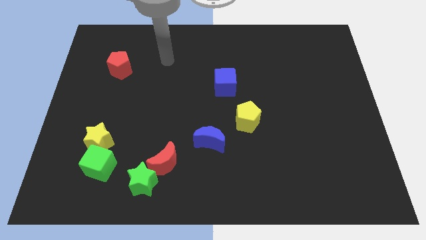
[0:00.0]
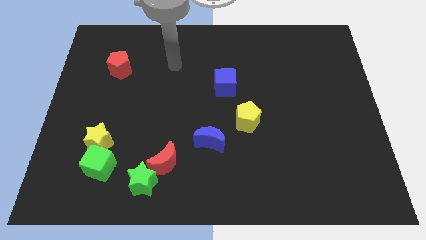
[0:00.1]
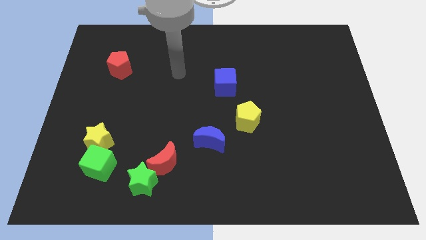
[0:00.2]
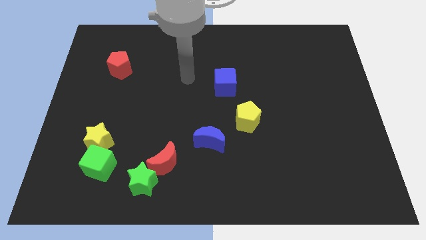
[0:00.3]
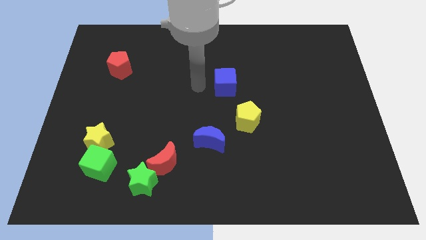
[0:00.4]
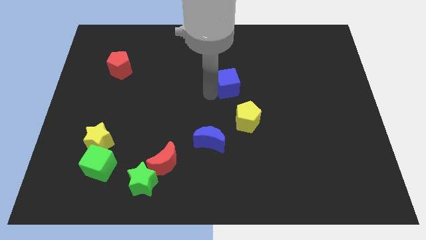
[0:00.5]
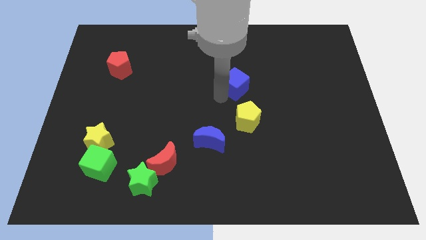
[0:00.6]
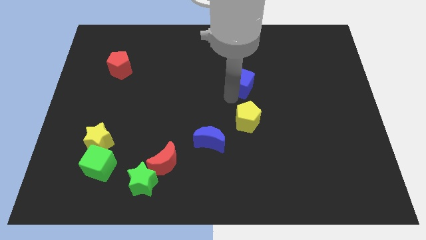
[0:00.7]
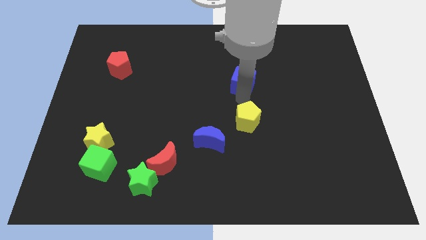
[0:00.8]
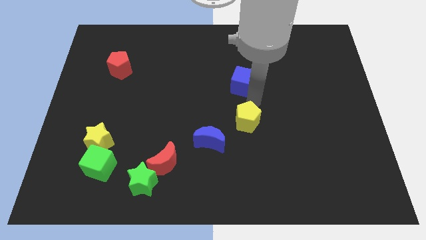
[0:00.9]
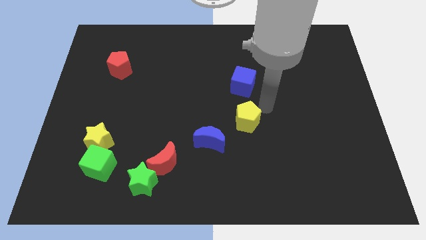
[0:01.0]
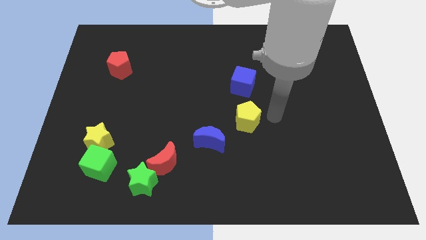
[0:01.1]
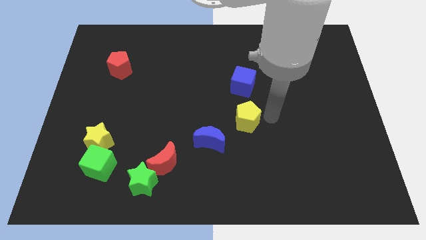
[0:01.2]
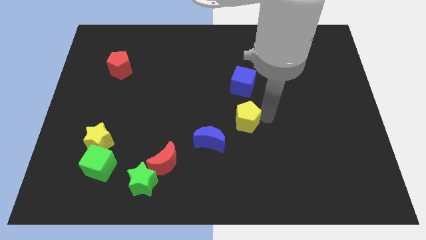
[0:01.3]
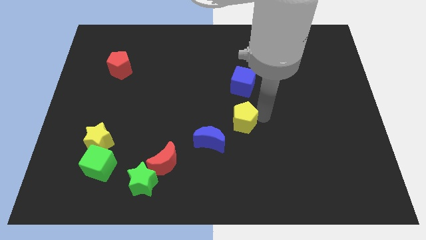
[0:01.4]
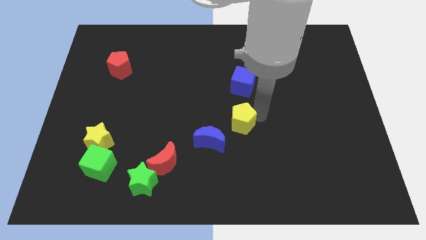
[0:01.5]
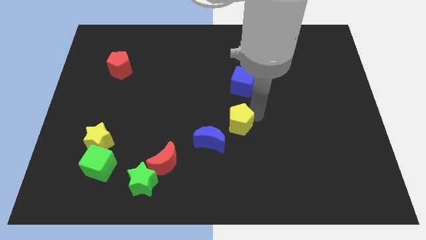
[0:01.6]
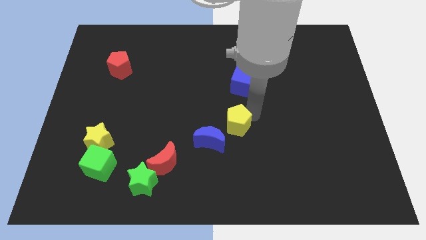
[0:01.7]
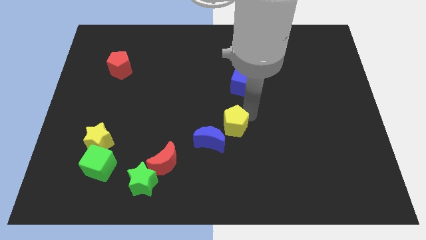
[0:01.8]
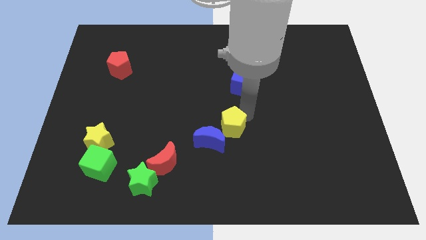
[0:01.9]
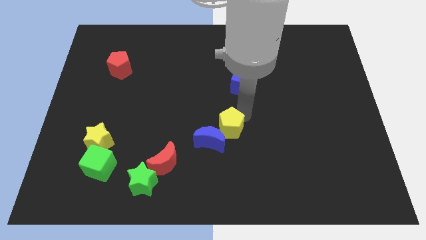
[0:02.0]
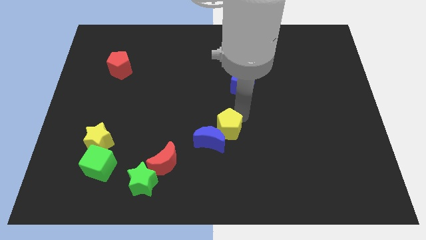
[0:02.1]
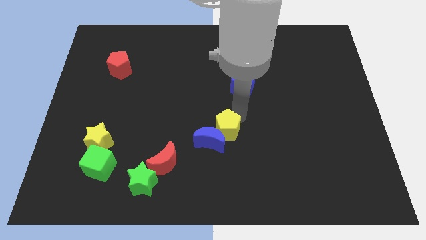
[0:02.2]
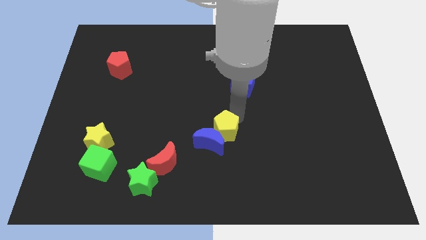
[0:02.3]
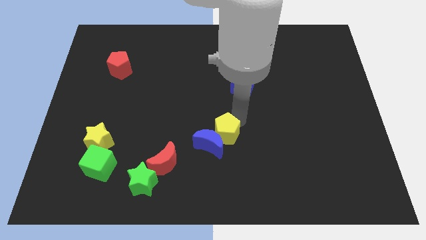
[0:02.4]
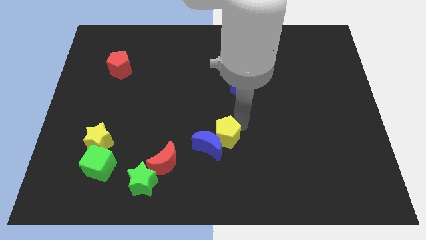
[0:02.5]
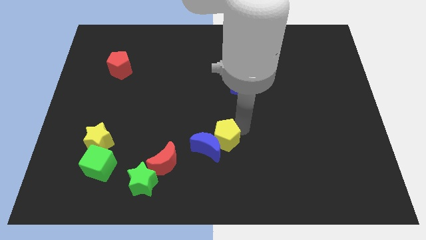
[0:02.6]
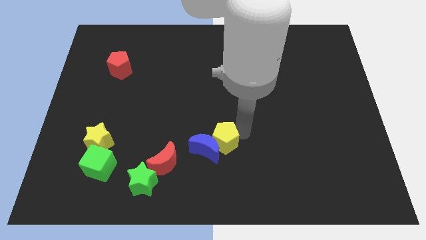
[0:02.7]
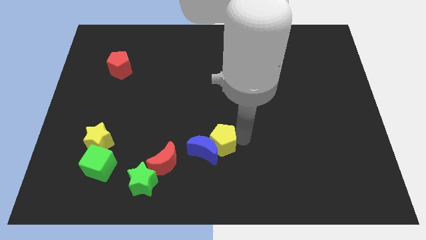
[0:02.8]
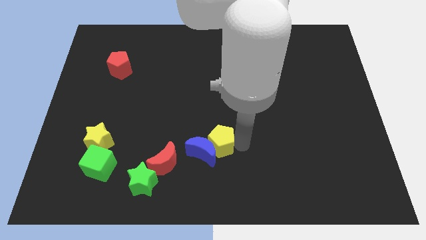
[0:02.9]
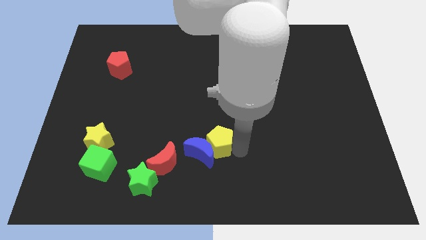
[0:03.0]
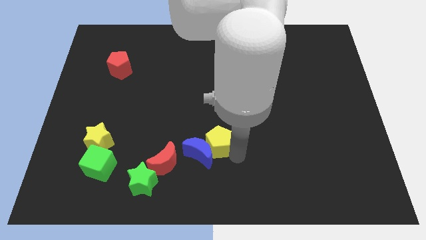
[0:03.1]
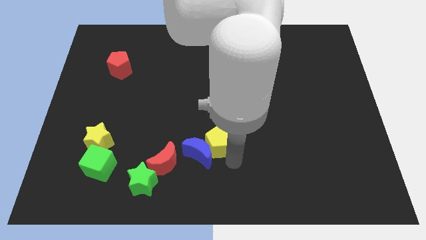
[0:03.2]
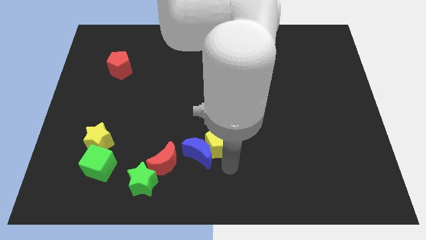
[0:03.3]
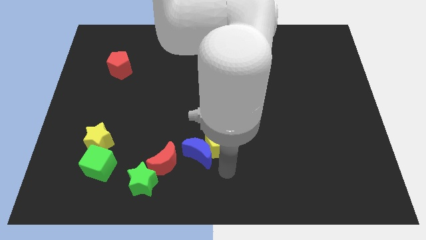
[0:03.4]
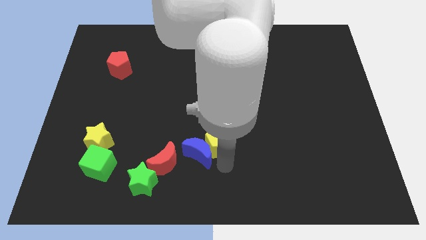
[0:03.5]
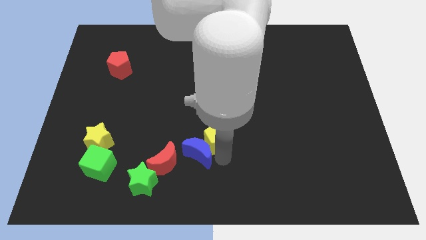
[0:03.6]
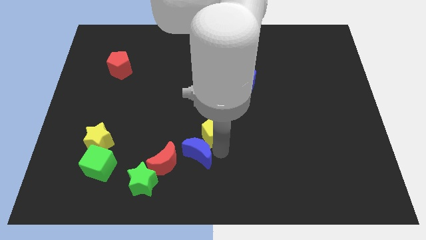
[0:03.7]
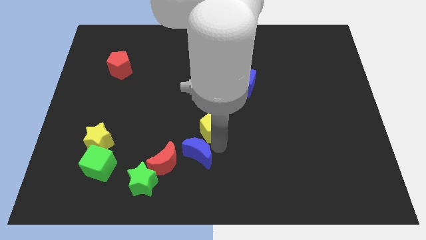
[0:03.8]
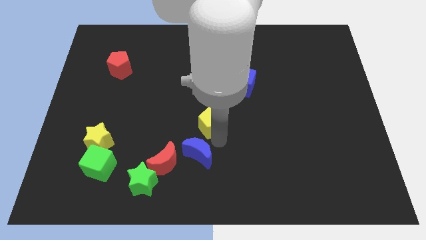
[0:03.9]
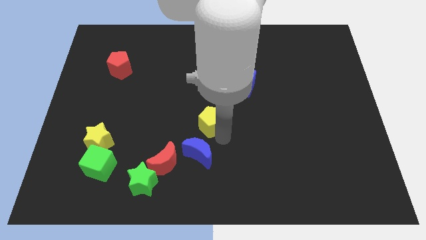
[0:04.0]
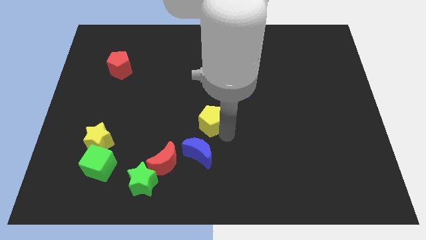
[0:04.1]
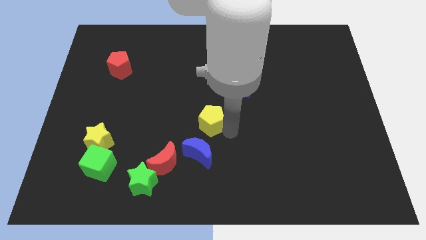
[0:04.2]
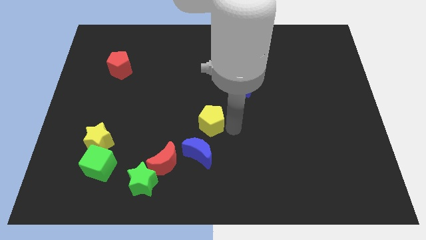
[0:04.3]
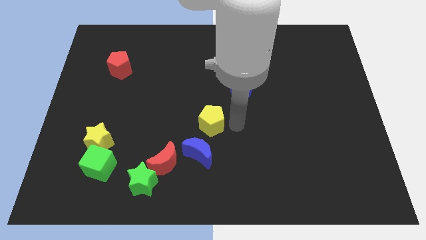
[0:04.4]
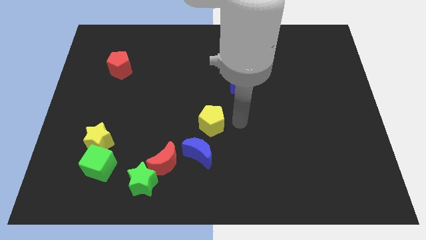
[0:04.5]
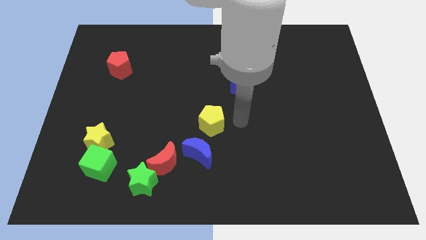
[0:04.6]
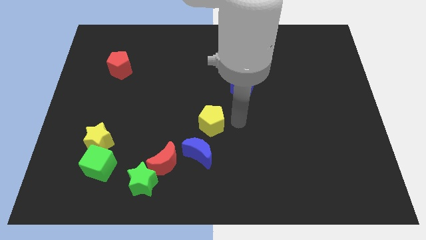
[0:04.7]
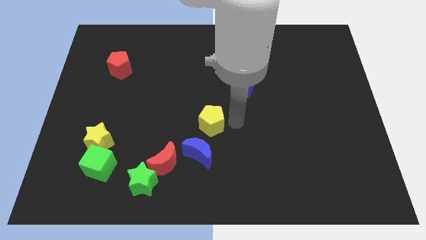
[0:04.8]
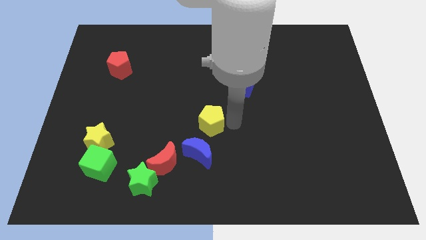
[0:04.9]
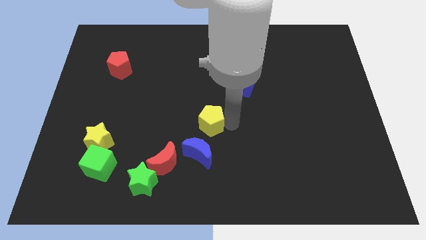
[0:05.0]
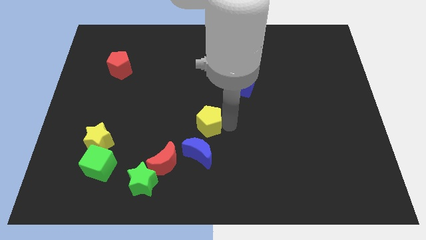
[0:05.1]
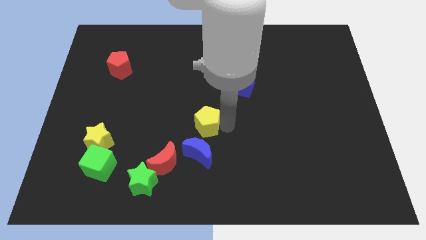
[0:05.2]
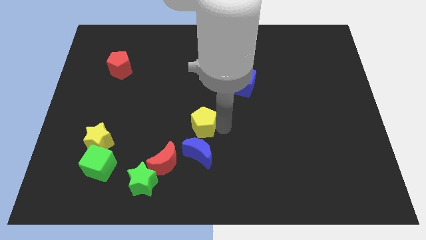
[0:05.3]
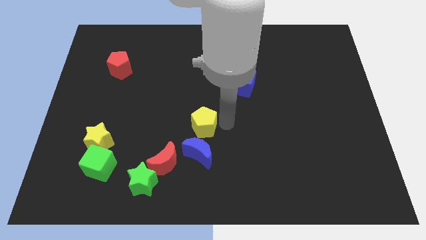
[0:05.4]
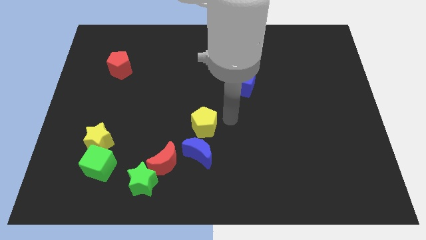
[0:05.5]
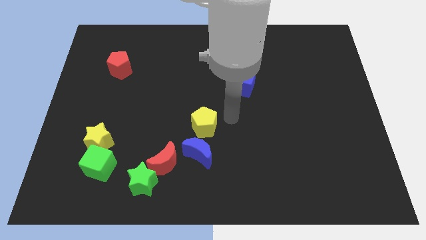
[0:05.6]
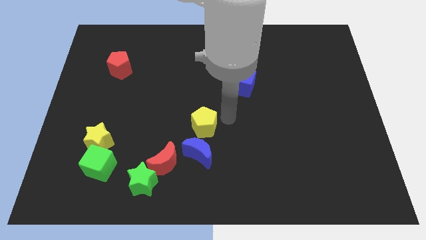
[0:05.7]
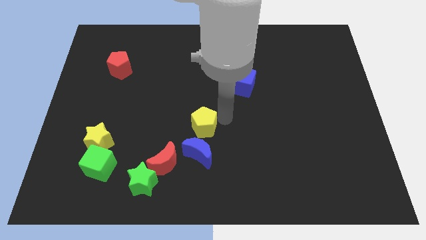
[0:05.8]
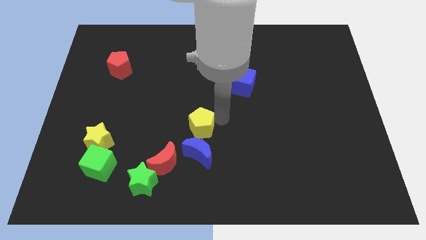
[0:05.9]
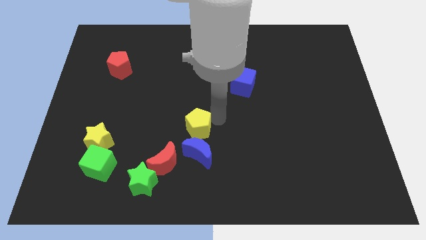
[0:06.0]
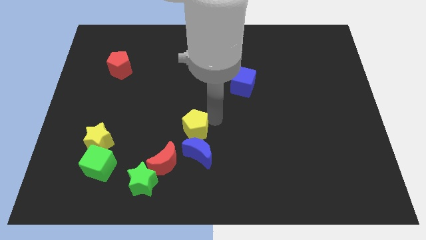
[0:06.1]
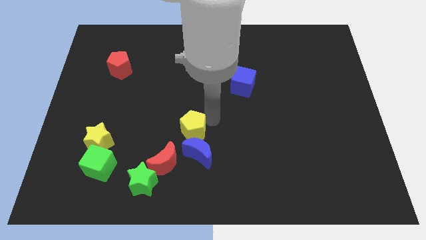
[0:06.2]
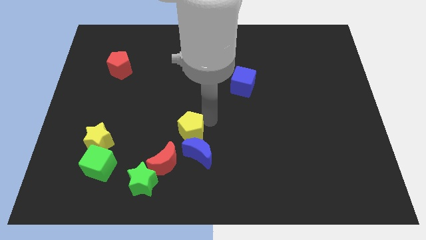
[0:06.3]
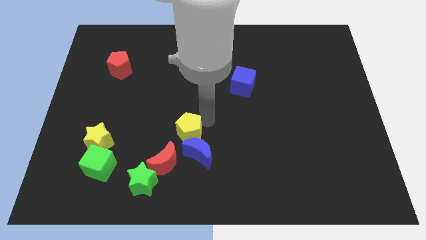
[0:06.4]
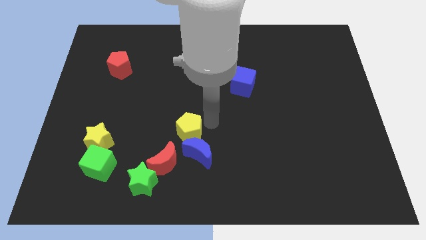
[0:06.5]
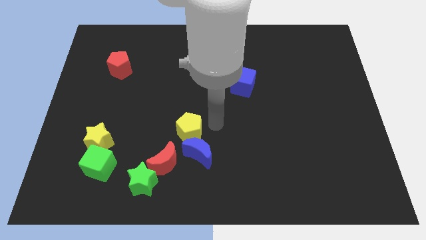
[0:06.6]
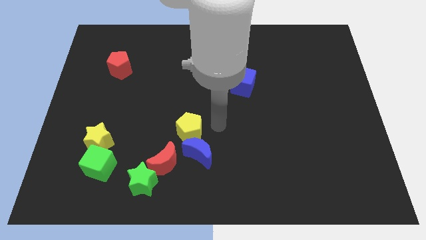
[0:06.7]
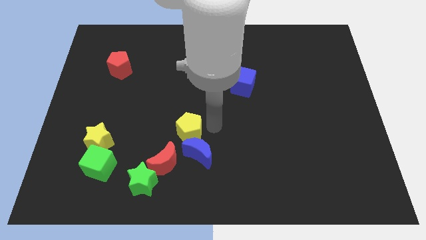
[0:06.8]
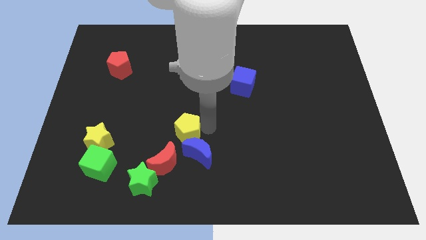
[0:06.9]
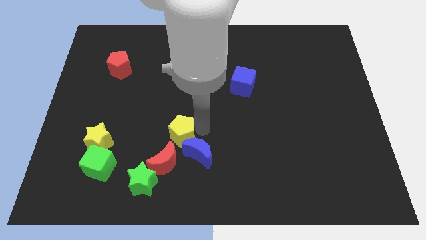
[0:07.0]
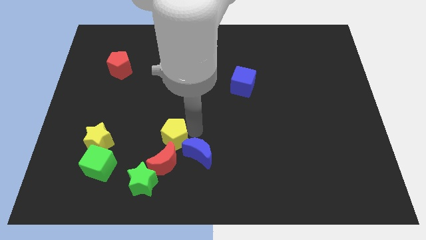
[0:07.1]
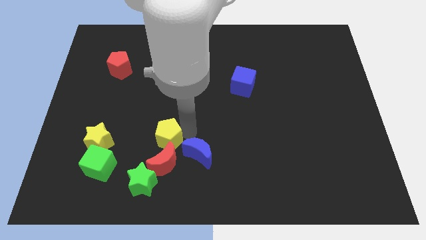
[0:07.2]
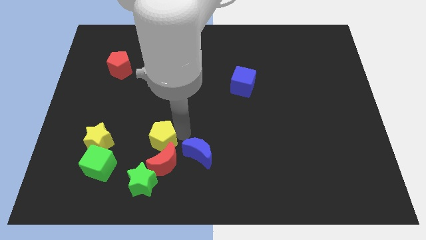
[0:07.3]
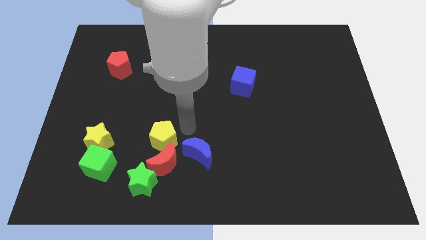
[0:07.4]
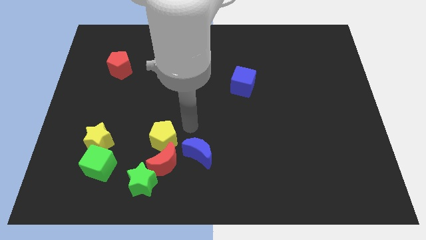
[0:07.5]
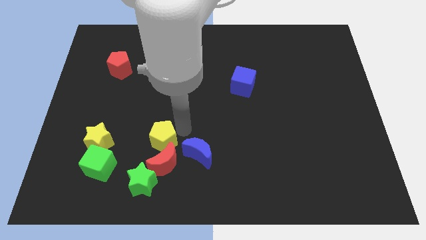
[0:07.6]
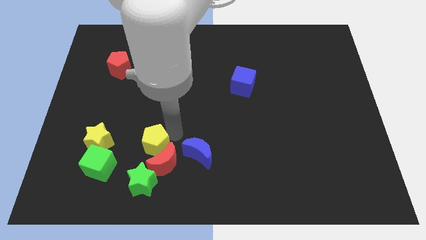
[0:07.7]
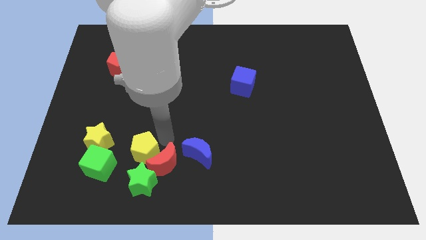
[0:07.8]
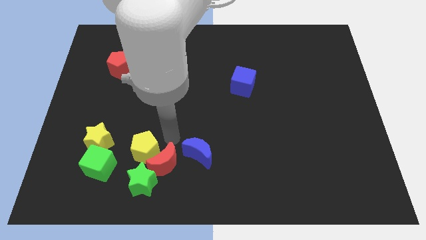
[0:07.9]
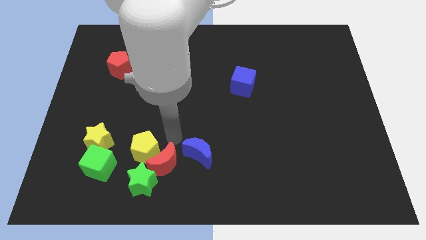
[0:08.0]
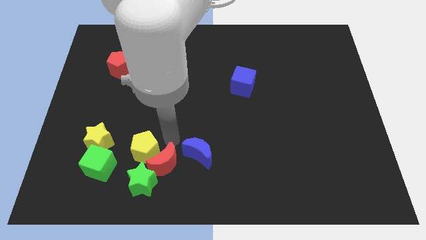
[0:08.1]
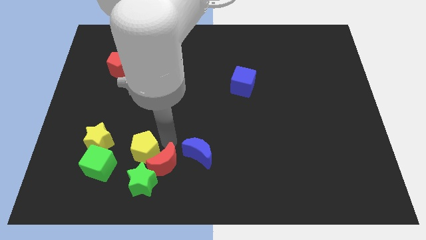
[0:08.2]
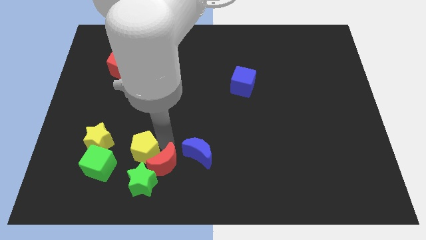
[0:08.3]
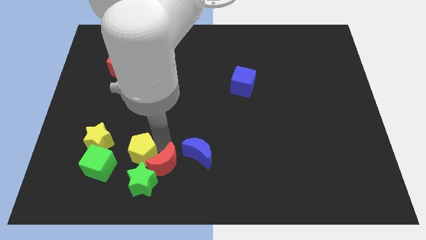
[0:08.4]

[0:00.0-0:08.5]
push the yellow pentagon diagonally down and to the right of the yellow star
